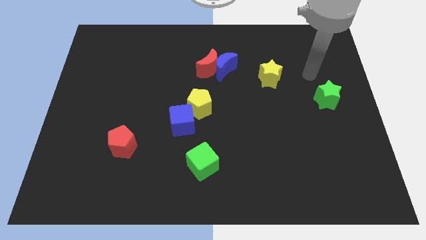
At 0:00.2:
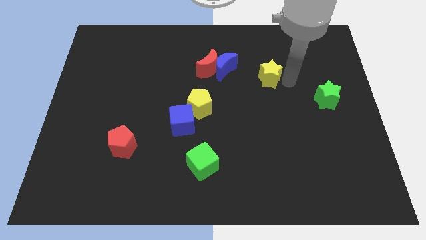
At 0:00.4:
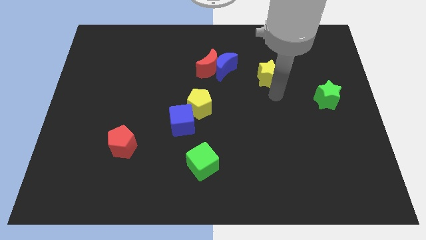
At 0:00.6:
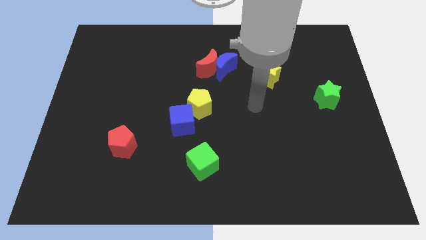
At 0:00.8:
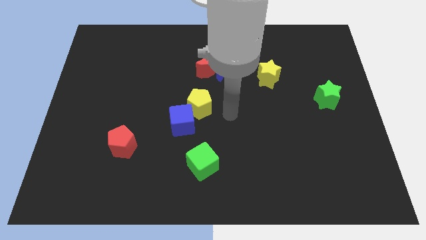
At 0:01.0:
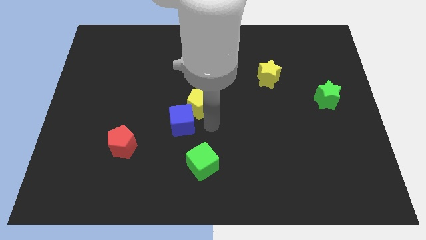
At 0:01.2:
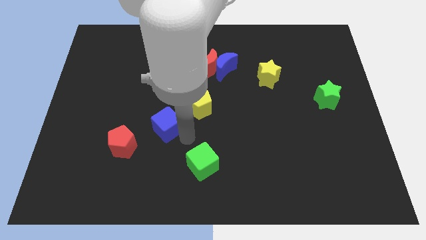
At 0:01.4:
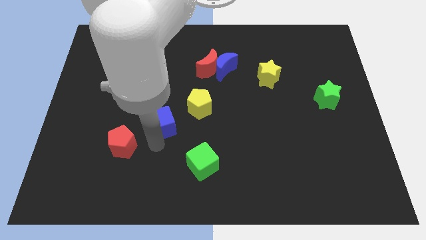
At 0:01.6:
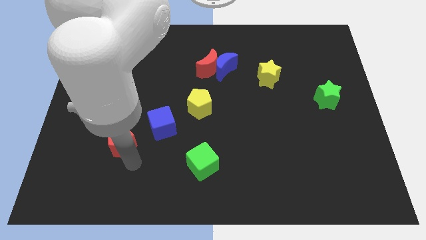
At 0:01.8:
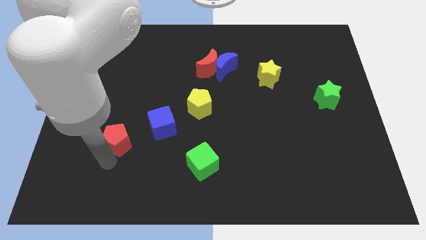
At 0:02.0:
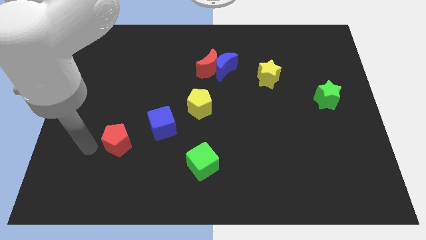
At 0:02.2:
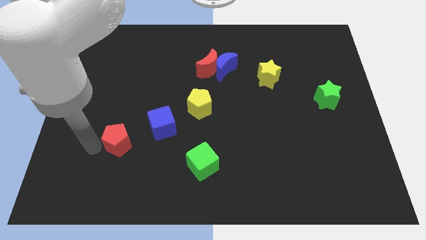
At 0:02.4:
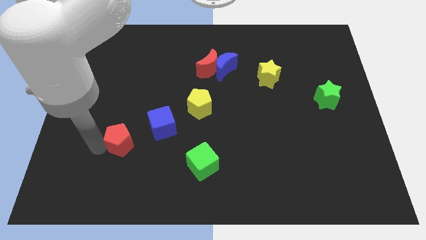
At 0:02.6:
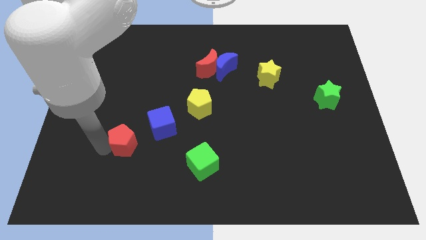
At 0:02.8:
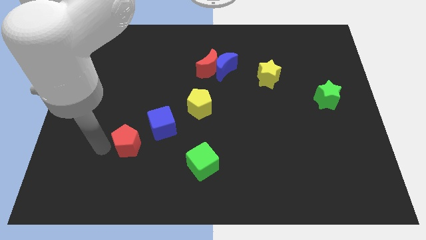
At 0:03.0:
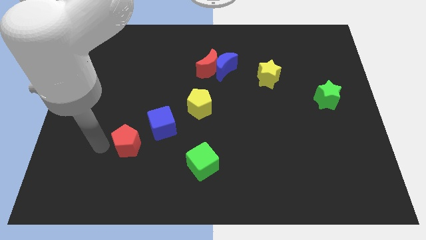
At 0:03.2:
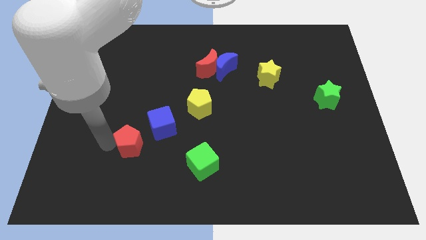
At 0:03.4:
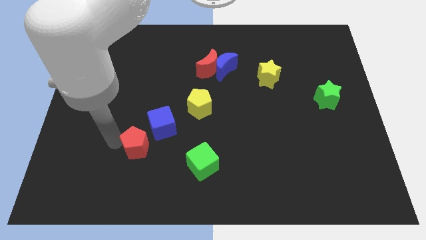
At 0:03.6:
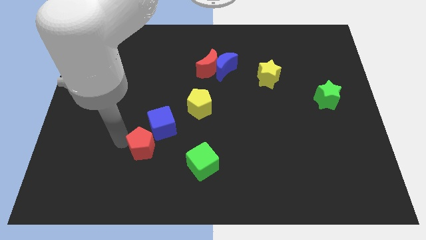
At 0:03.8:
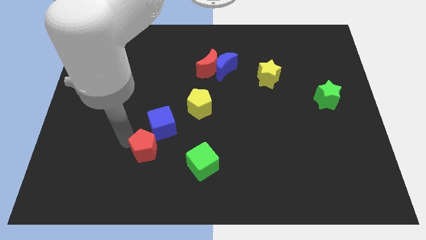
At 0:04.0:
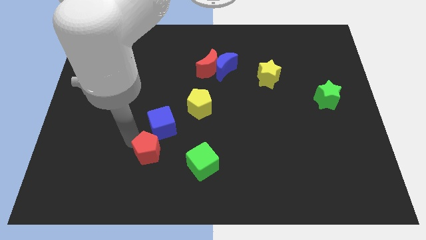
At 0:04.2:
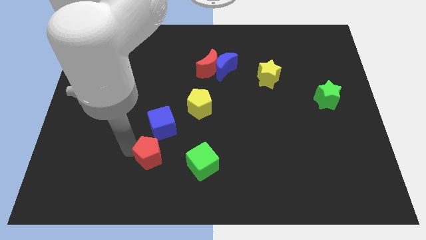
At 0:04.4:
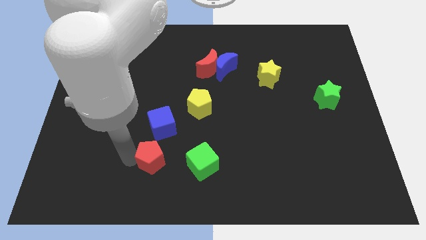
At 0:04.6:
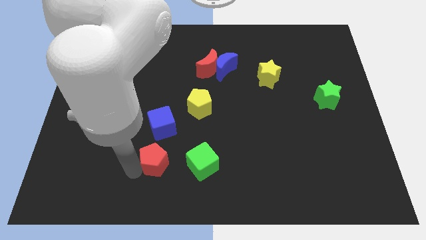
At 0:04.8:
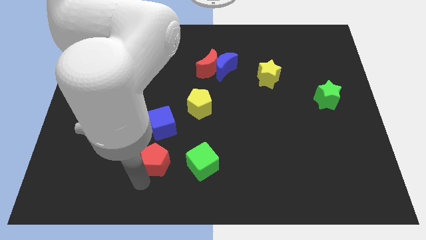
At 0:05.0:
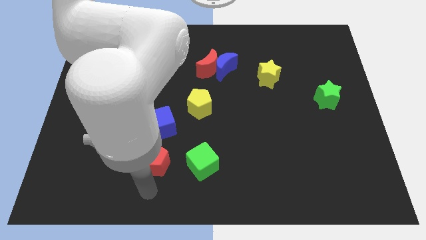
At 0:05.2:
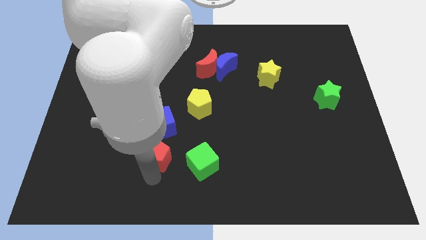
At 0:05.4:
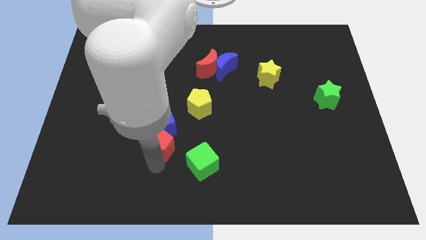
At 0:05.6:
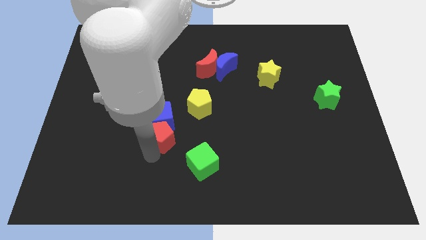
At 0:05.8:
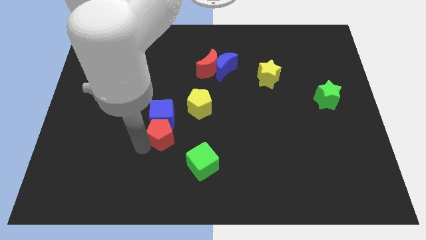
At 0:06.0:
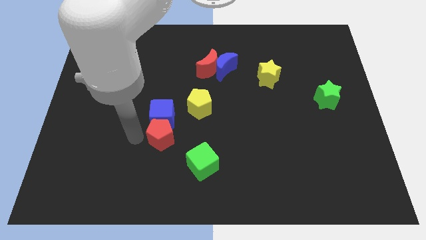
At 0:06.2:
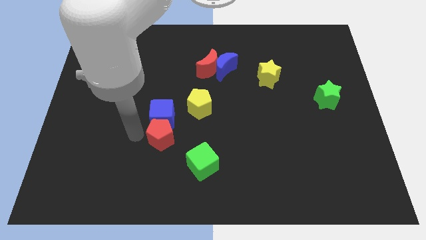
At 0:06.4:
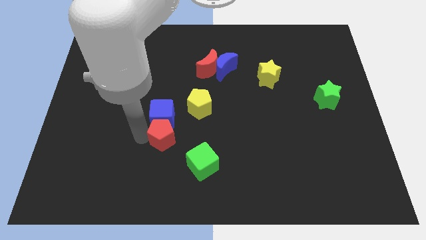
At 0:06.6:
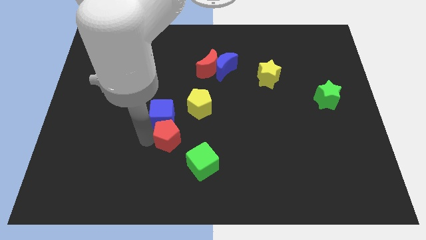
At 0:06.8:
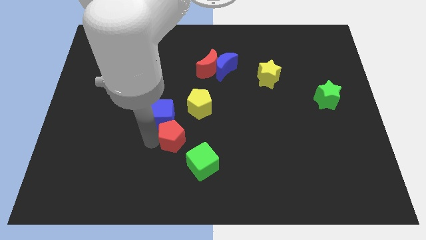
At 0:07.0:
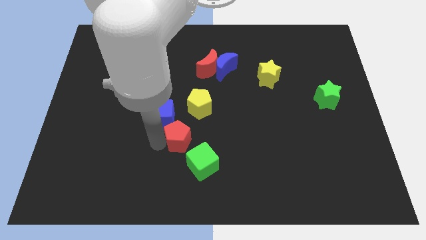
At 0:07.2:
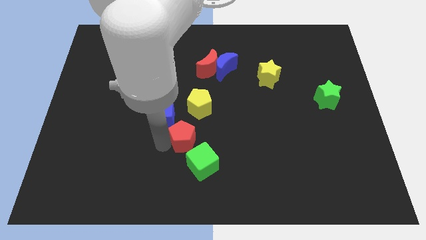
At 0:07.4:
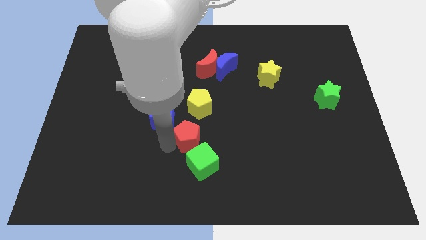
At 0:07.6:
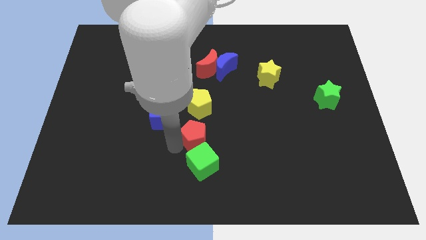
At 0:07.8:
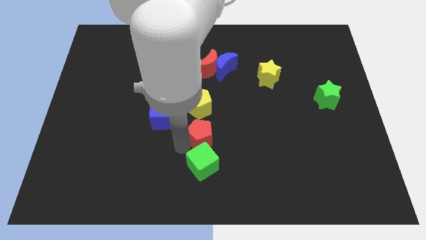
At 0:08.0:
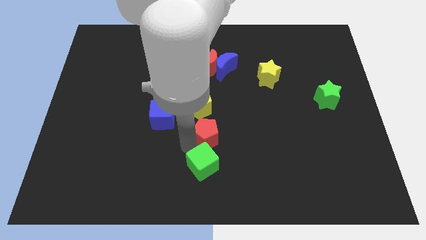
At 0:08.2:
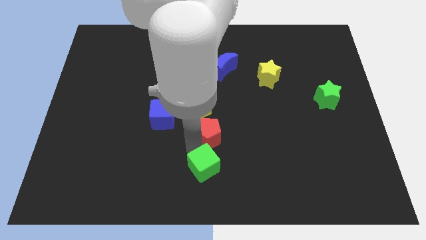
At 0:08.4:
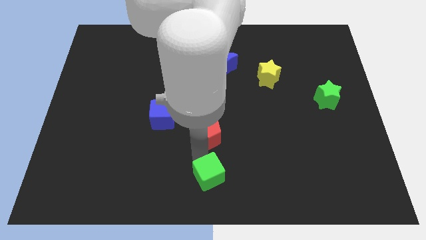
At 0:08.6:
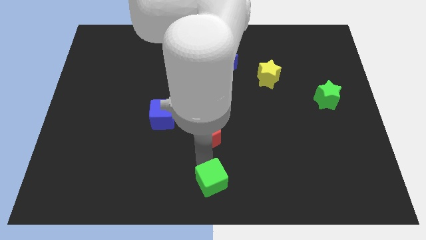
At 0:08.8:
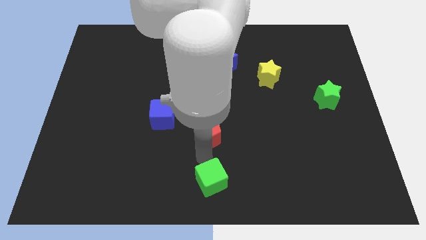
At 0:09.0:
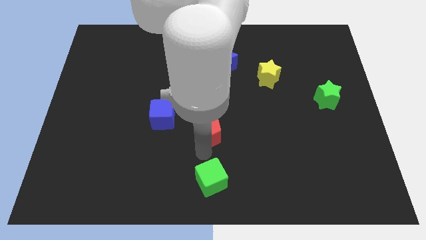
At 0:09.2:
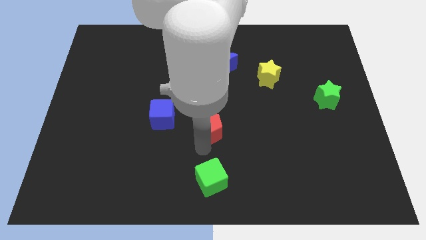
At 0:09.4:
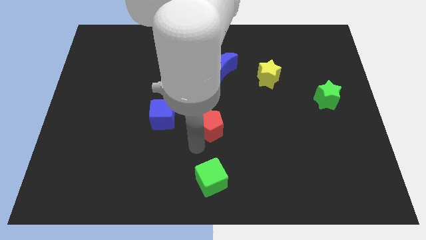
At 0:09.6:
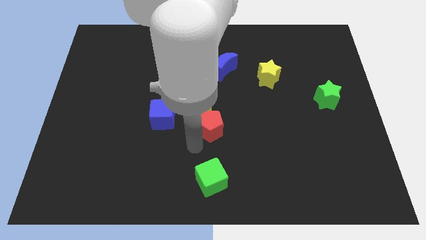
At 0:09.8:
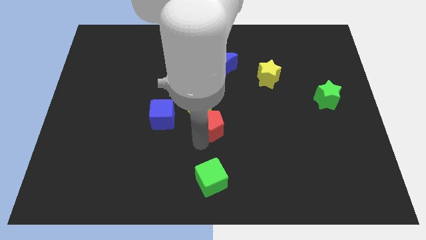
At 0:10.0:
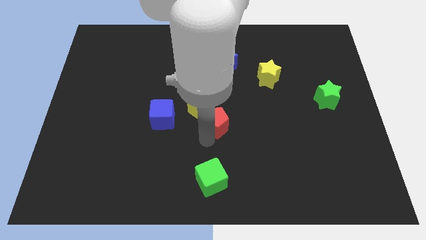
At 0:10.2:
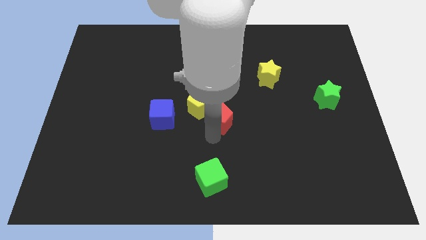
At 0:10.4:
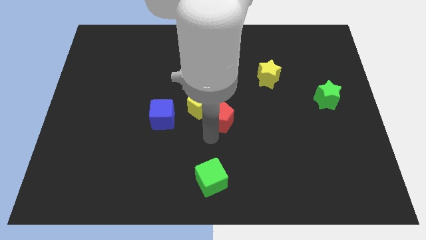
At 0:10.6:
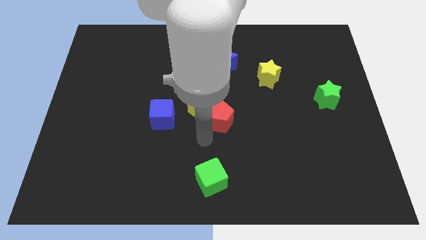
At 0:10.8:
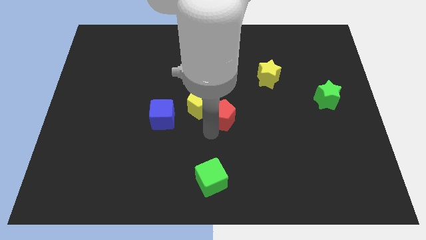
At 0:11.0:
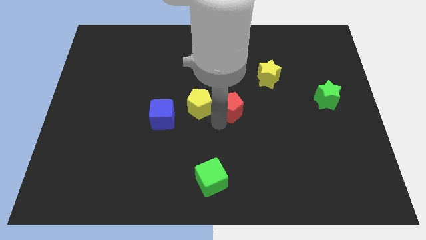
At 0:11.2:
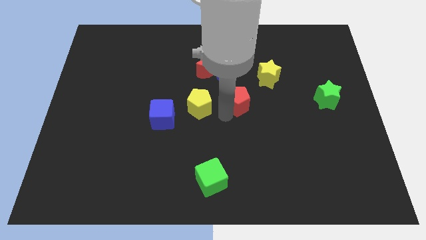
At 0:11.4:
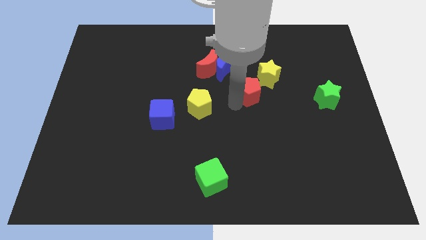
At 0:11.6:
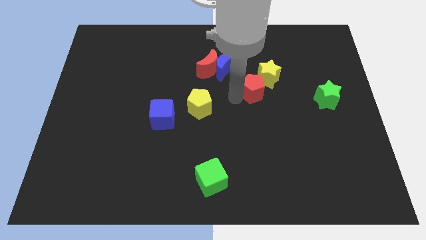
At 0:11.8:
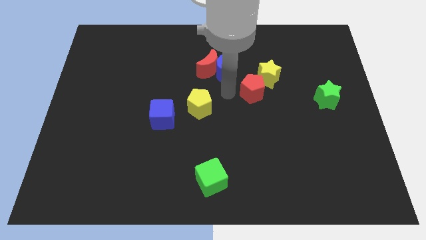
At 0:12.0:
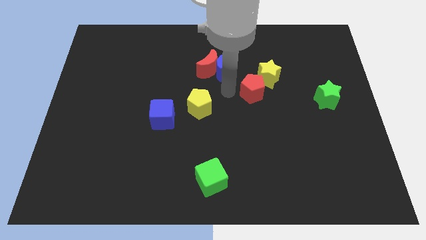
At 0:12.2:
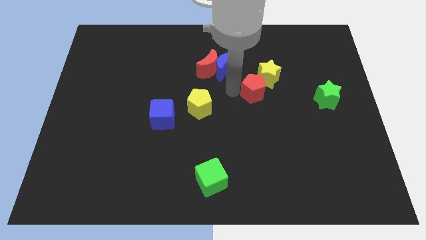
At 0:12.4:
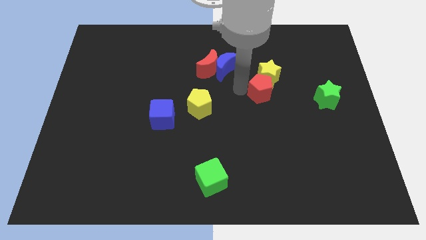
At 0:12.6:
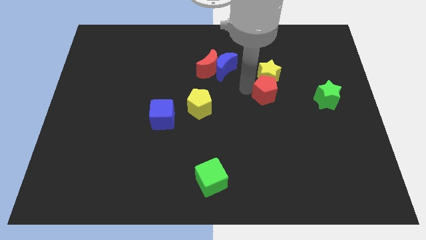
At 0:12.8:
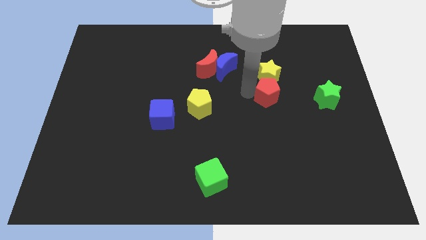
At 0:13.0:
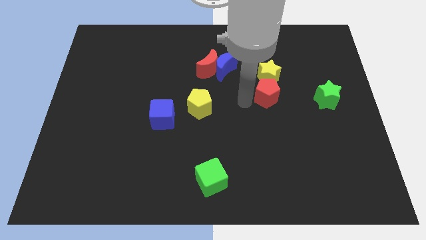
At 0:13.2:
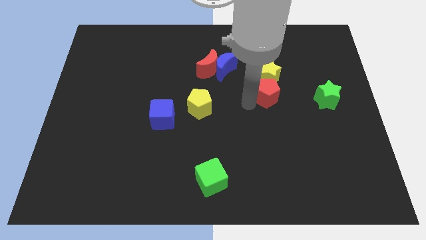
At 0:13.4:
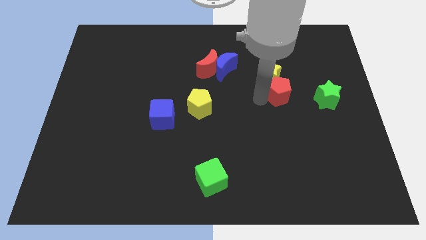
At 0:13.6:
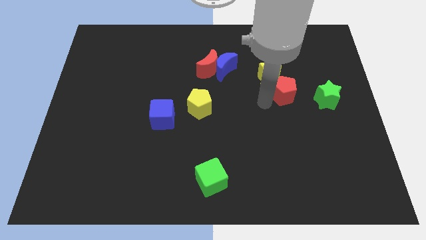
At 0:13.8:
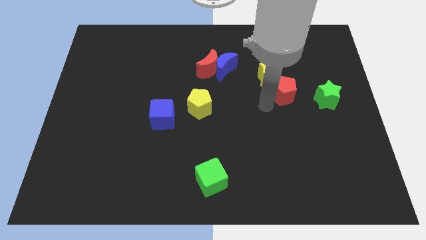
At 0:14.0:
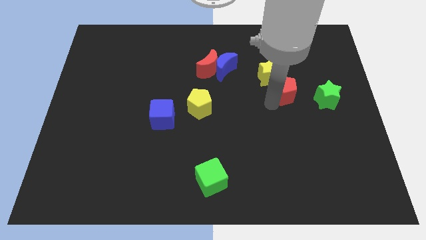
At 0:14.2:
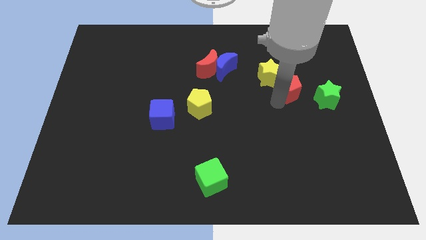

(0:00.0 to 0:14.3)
put the red pentagon to the top left of the green star

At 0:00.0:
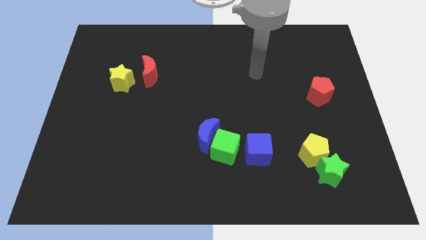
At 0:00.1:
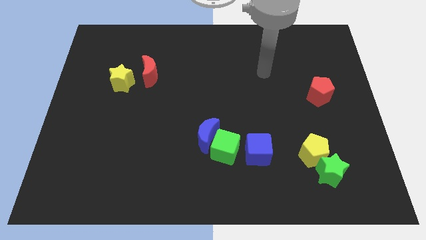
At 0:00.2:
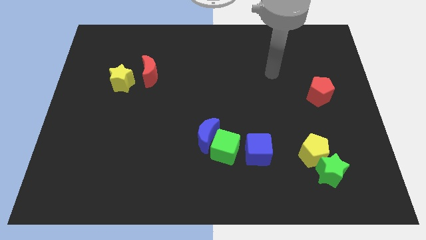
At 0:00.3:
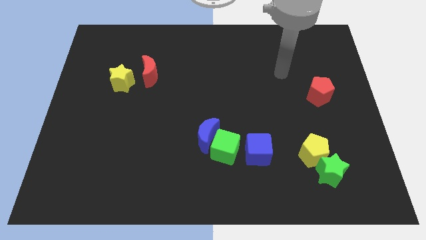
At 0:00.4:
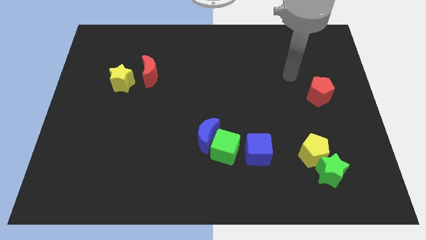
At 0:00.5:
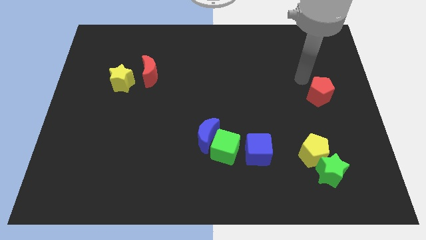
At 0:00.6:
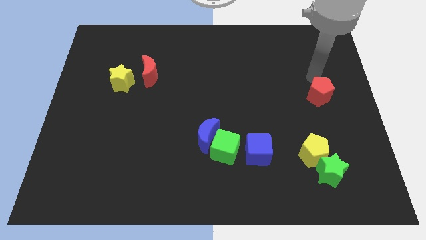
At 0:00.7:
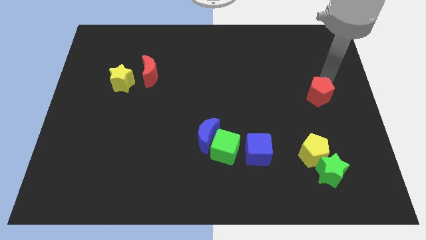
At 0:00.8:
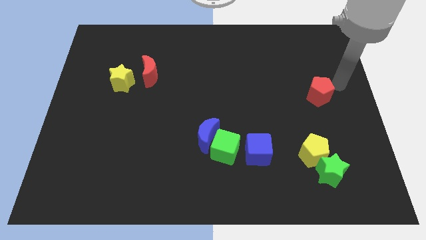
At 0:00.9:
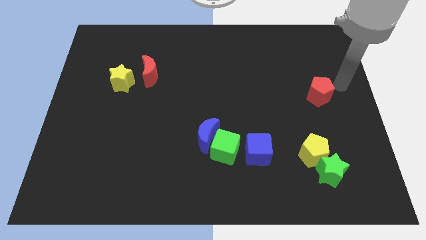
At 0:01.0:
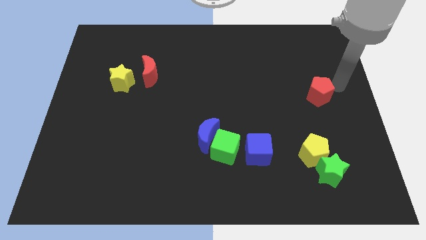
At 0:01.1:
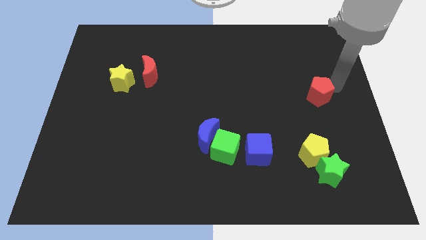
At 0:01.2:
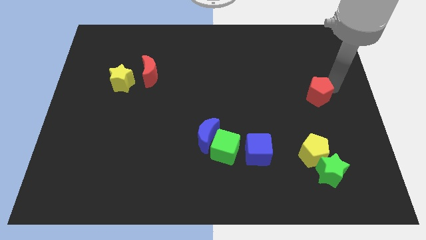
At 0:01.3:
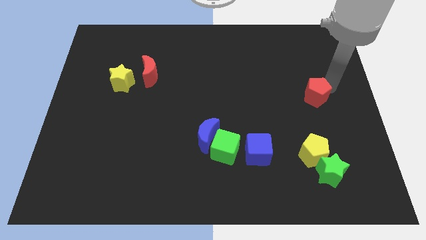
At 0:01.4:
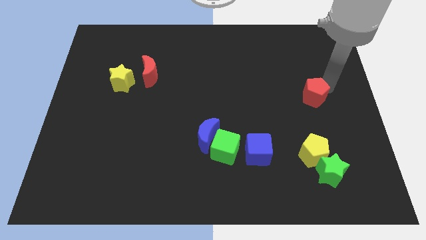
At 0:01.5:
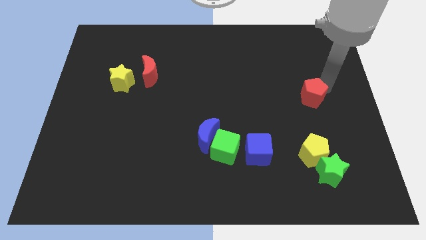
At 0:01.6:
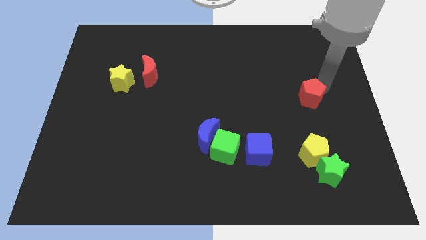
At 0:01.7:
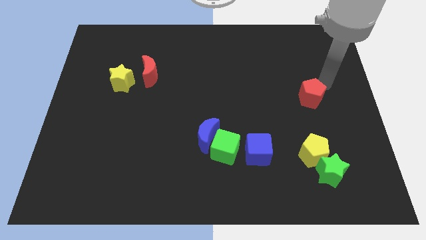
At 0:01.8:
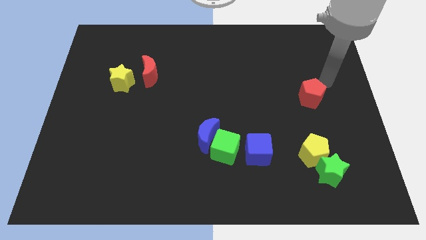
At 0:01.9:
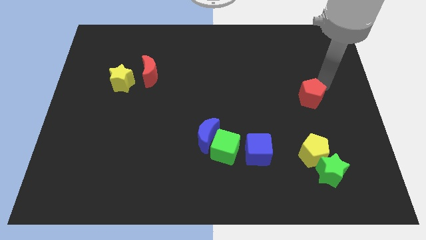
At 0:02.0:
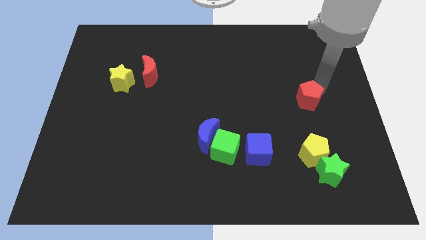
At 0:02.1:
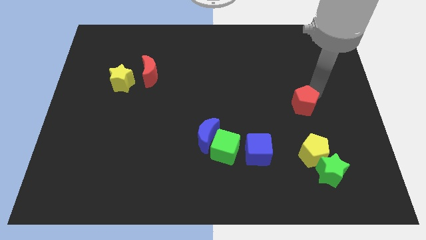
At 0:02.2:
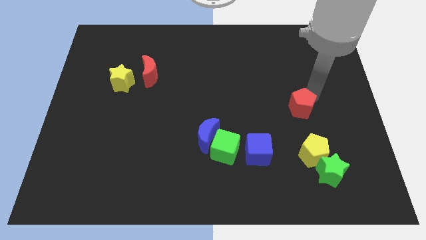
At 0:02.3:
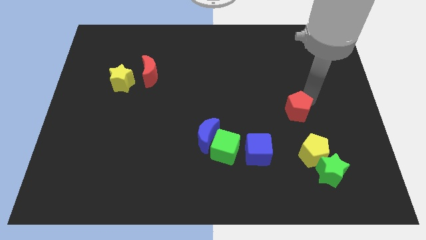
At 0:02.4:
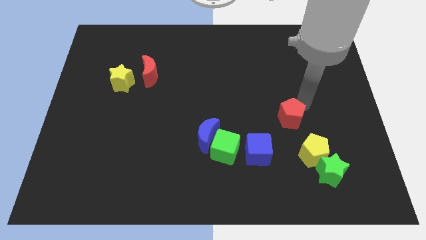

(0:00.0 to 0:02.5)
put the red pentagon to the top right side of the blue cube
